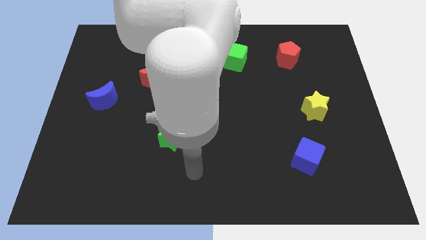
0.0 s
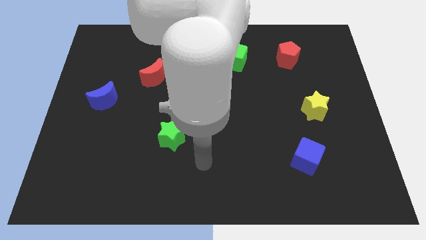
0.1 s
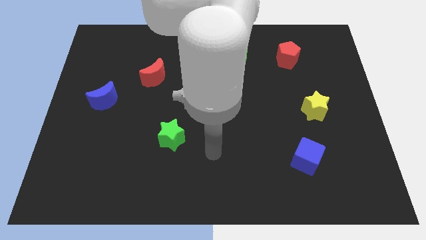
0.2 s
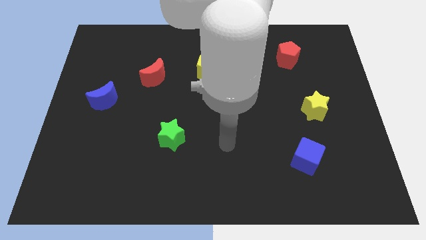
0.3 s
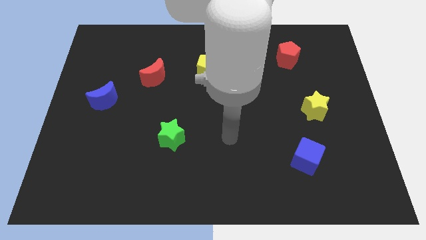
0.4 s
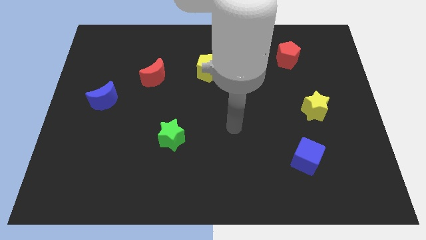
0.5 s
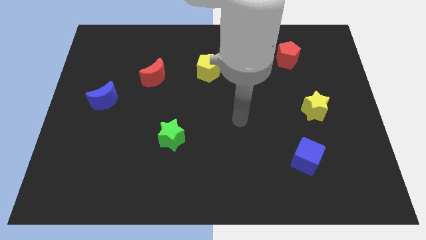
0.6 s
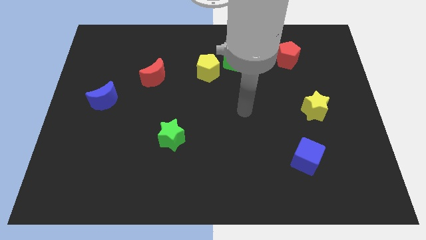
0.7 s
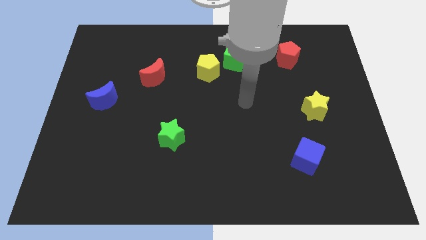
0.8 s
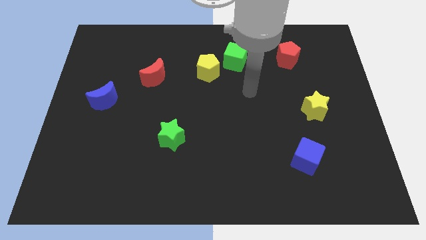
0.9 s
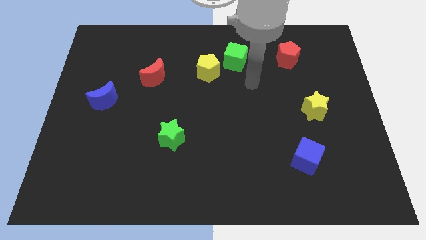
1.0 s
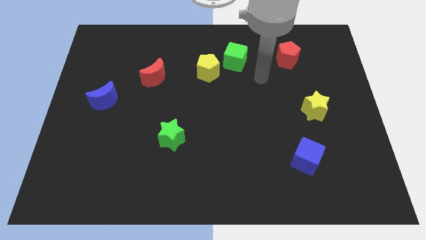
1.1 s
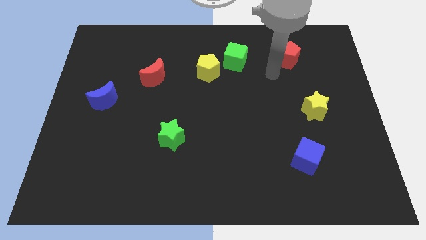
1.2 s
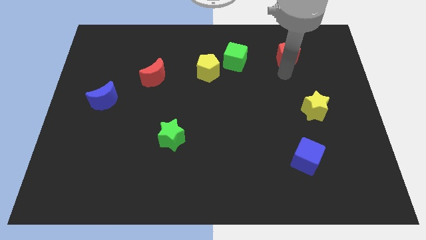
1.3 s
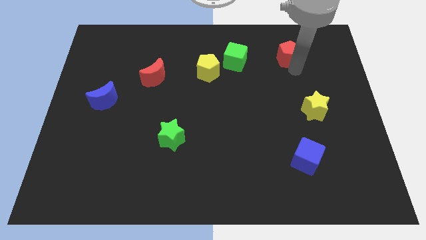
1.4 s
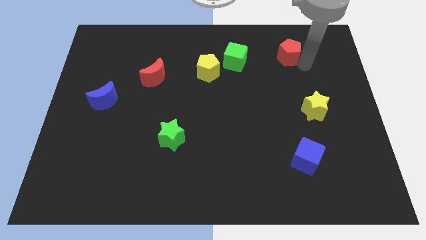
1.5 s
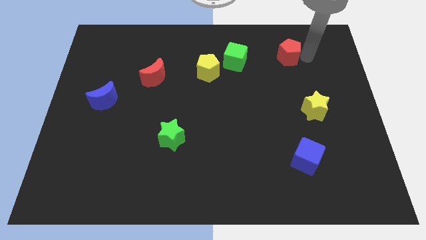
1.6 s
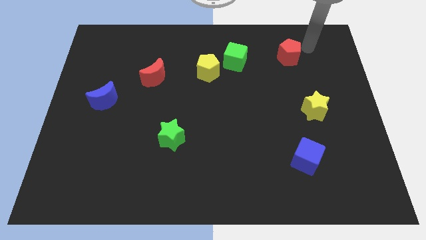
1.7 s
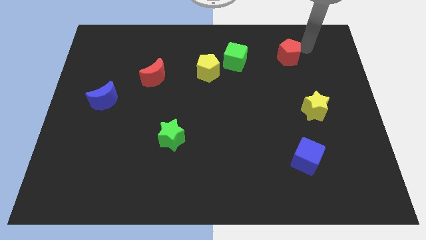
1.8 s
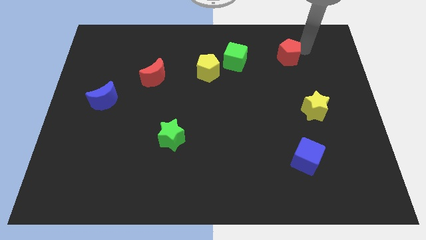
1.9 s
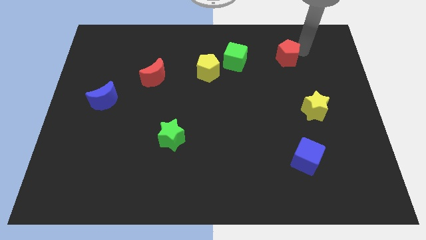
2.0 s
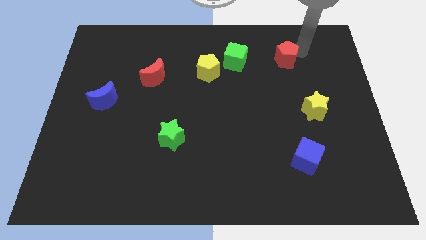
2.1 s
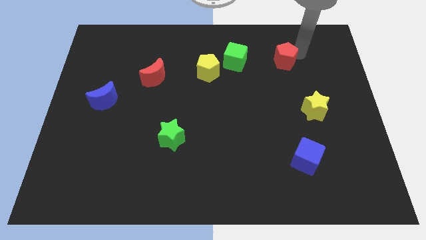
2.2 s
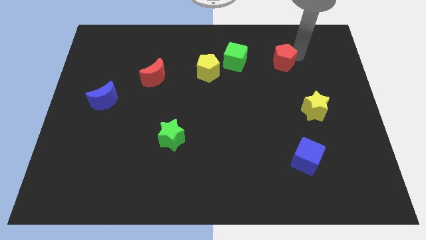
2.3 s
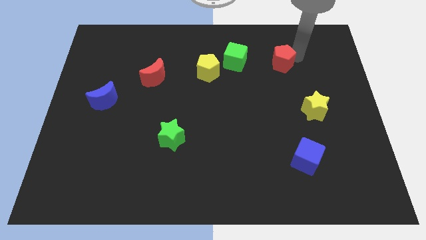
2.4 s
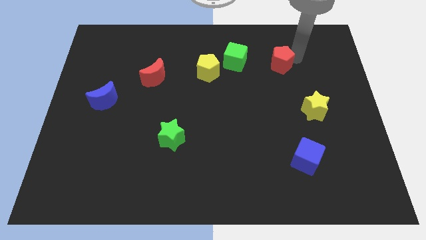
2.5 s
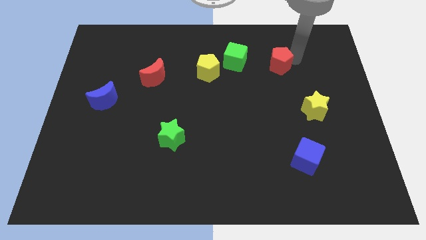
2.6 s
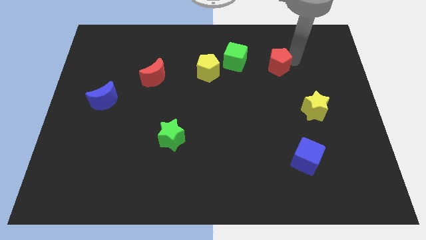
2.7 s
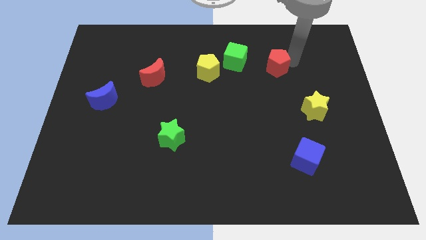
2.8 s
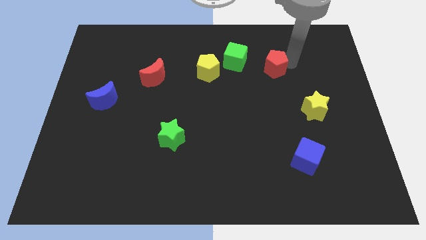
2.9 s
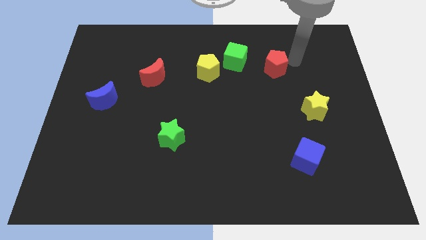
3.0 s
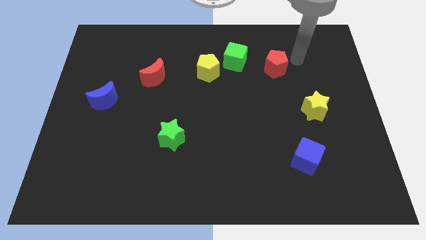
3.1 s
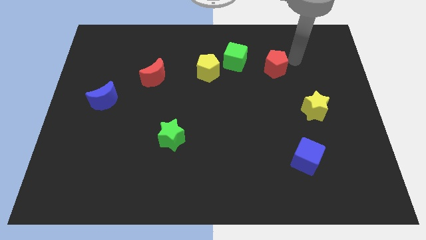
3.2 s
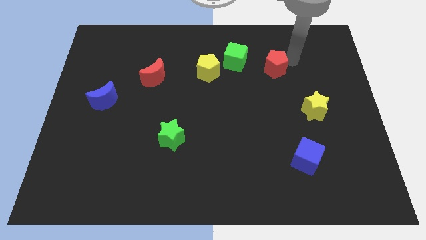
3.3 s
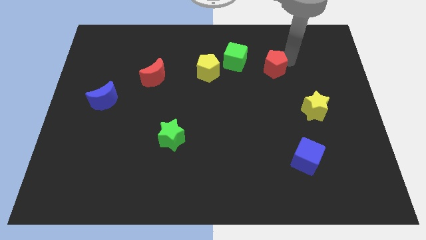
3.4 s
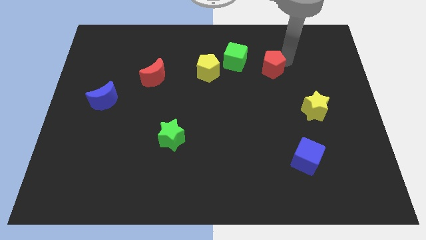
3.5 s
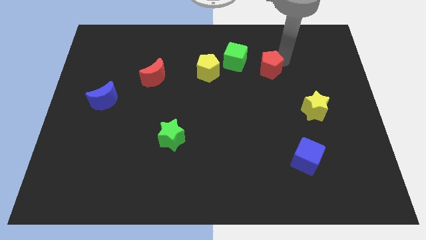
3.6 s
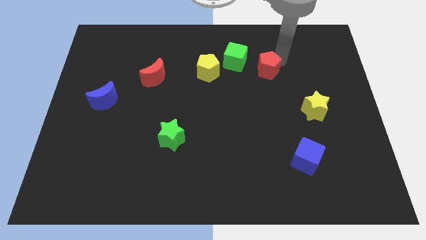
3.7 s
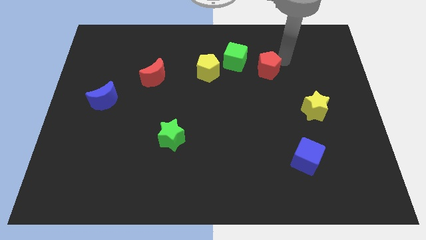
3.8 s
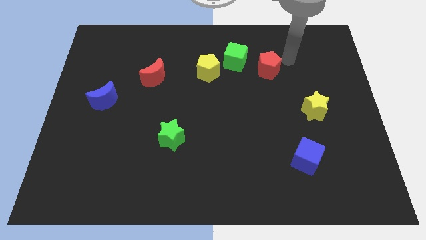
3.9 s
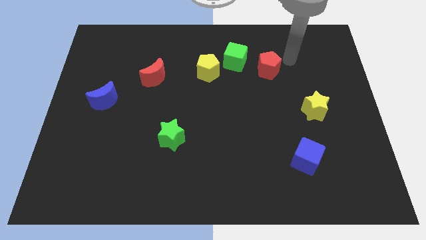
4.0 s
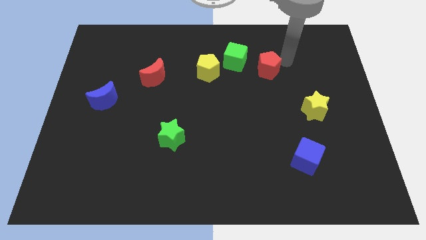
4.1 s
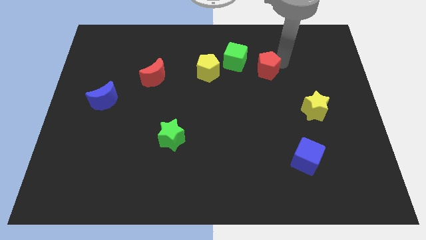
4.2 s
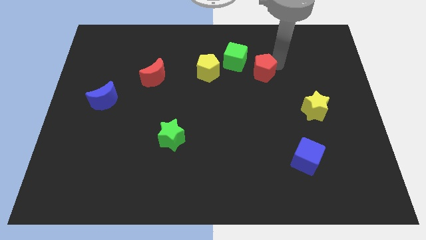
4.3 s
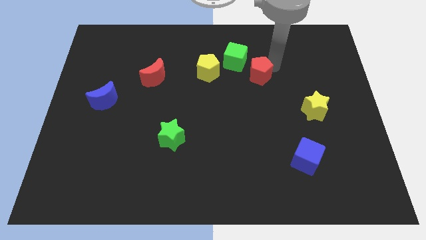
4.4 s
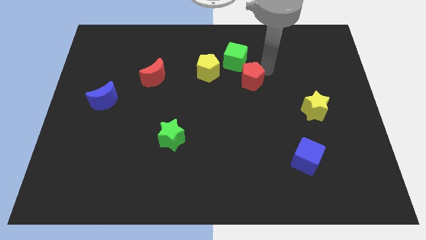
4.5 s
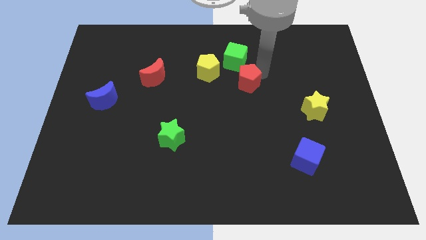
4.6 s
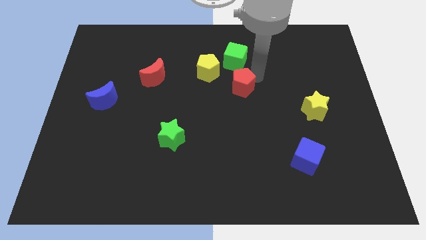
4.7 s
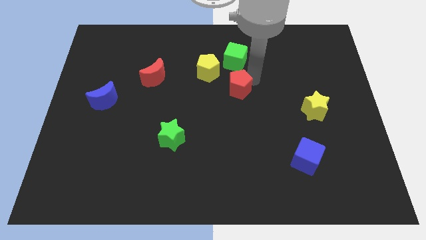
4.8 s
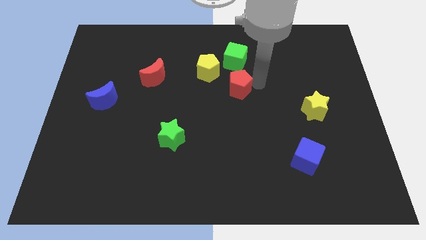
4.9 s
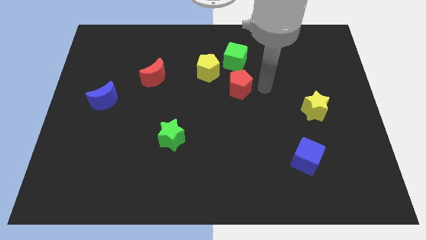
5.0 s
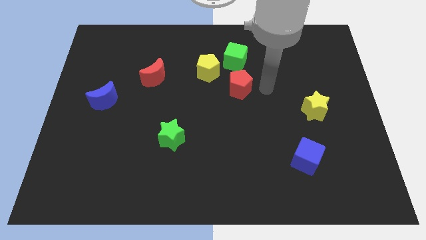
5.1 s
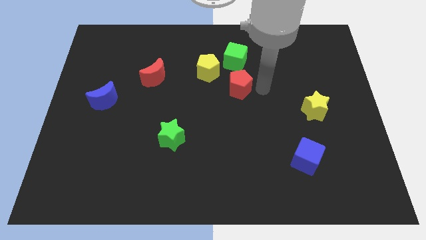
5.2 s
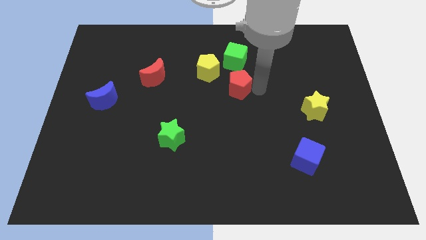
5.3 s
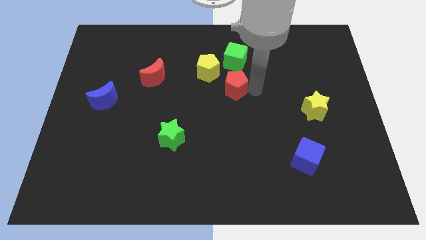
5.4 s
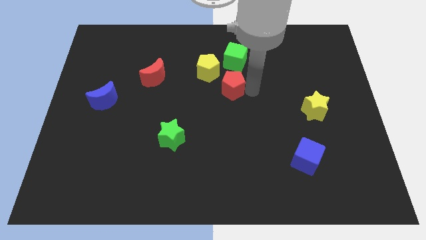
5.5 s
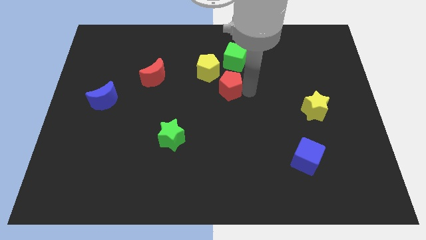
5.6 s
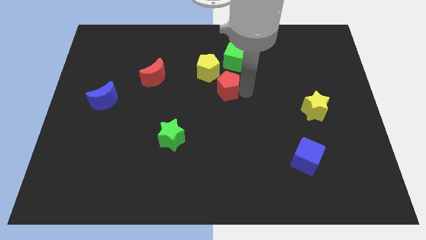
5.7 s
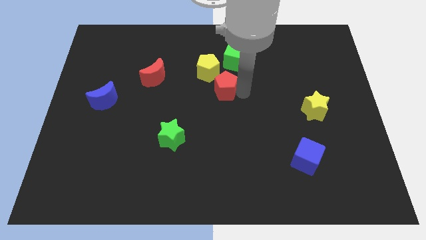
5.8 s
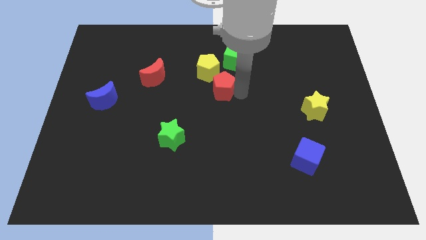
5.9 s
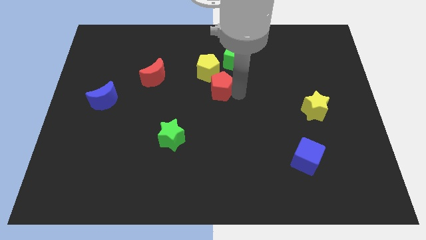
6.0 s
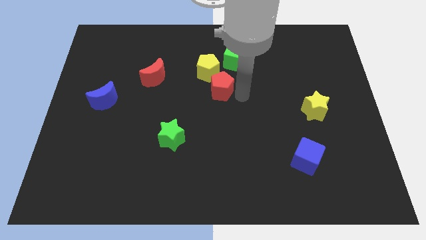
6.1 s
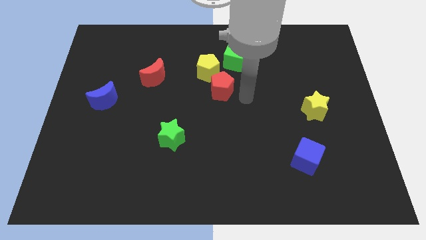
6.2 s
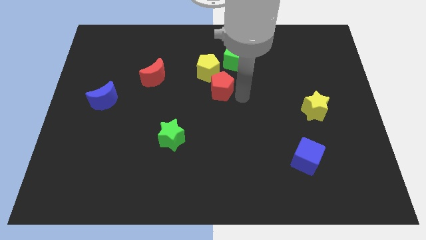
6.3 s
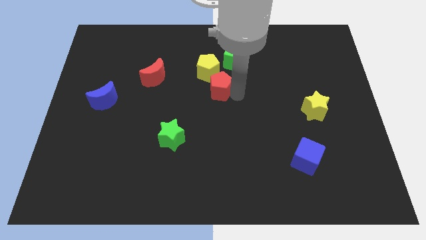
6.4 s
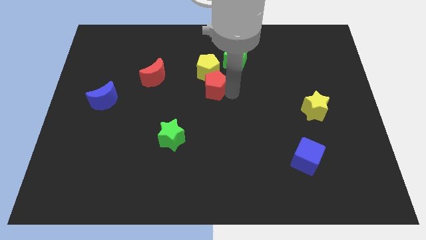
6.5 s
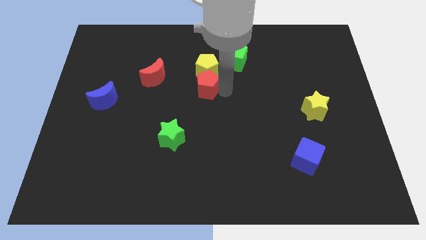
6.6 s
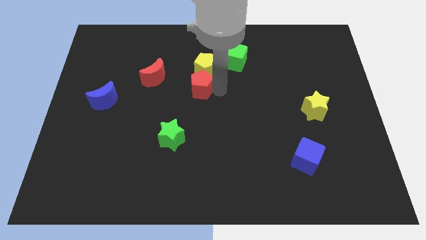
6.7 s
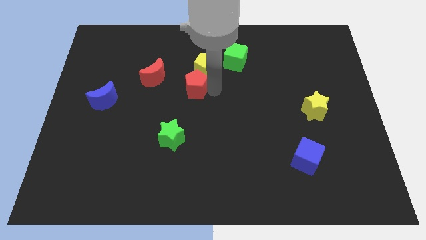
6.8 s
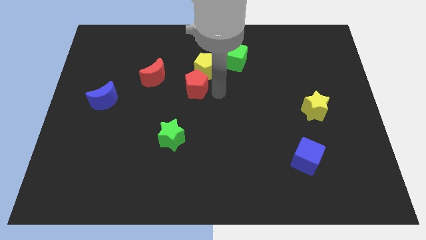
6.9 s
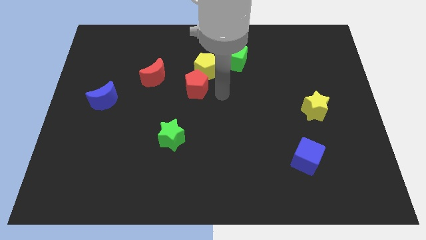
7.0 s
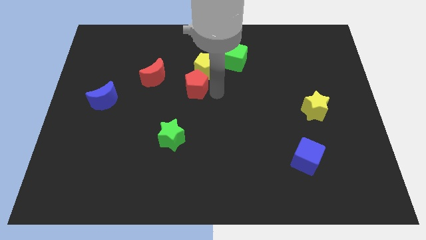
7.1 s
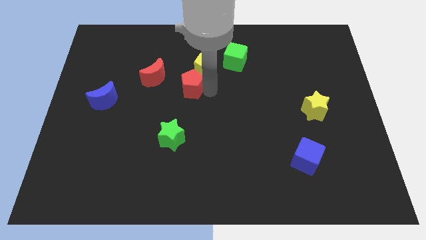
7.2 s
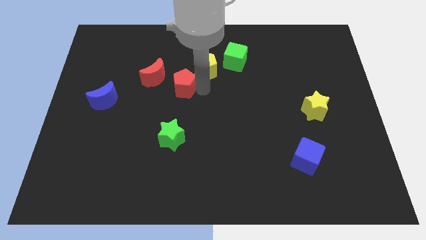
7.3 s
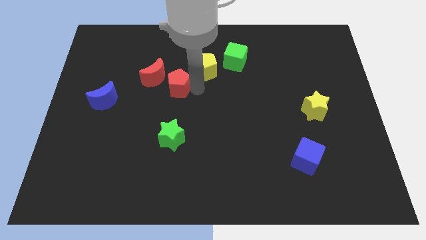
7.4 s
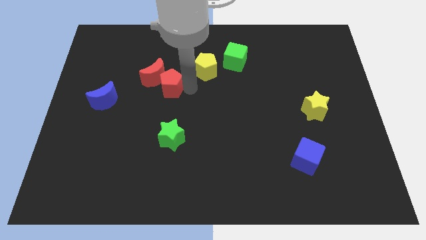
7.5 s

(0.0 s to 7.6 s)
put the red pentagon next to the red moon
